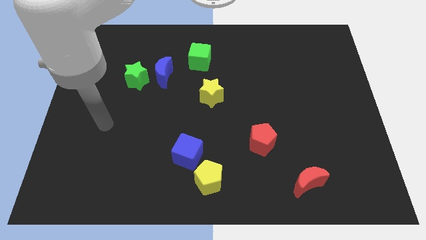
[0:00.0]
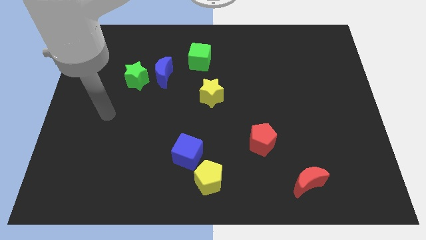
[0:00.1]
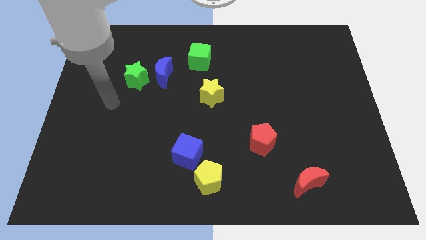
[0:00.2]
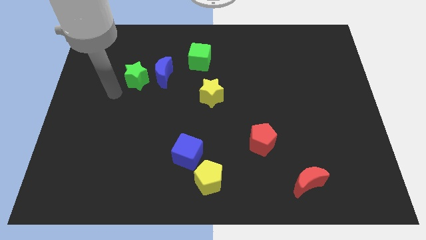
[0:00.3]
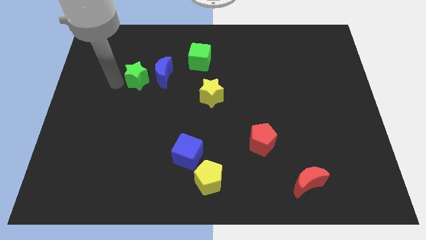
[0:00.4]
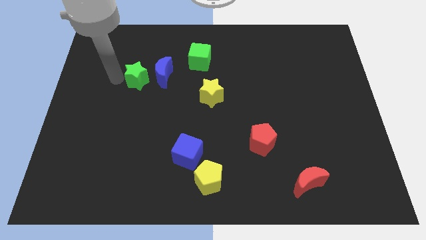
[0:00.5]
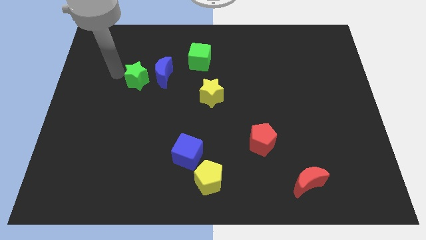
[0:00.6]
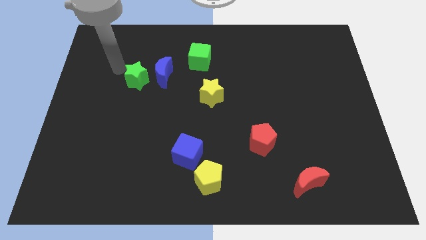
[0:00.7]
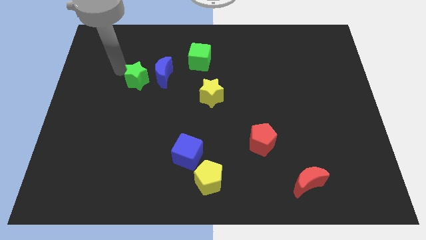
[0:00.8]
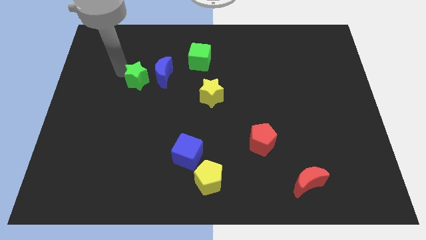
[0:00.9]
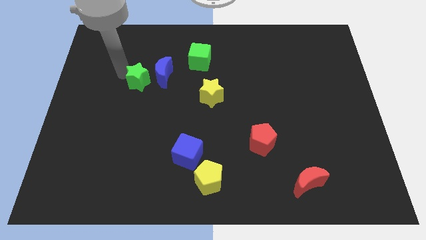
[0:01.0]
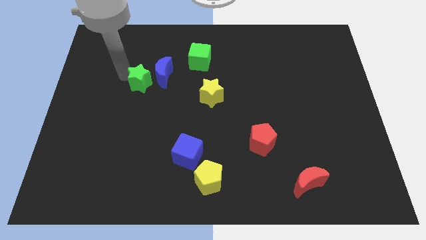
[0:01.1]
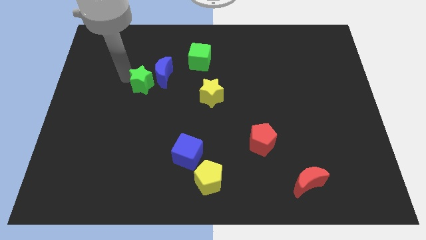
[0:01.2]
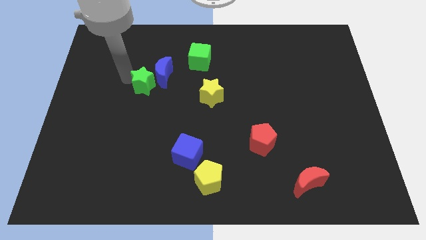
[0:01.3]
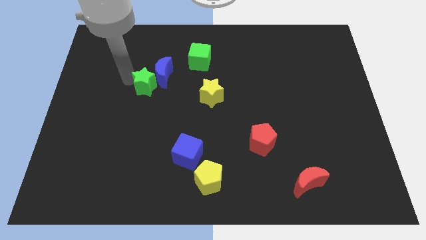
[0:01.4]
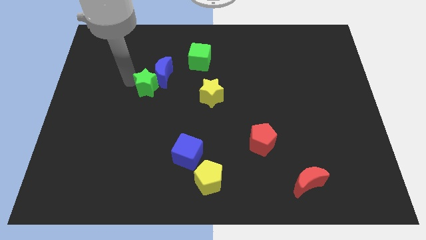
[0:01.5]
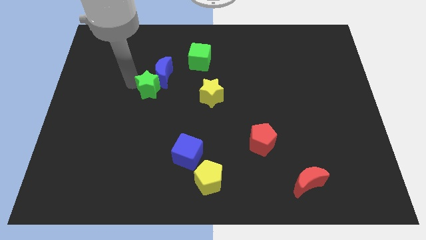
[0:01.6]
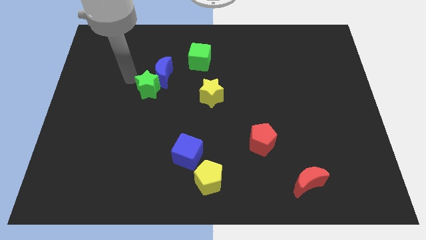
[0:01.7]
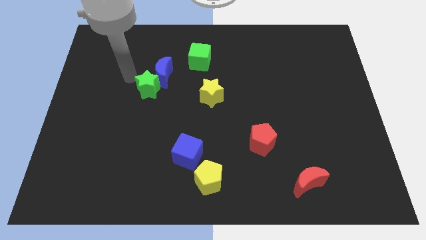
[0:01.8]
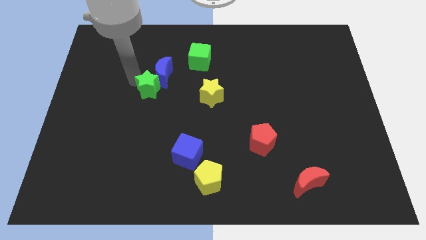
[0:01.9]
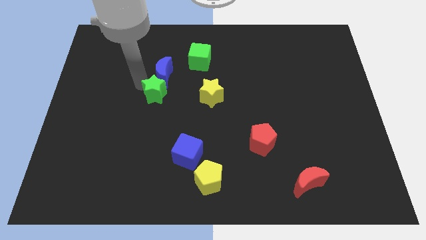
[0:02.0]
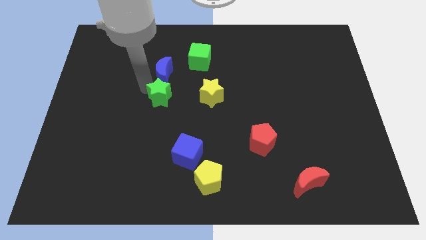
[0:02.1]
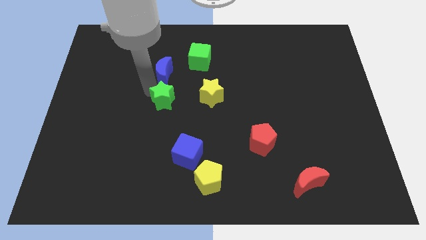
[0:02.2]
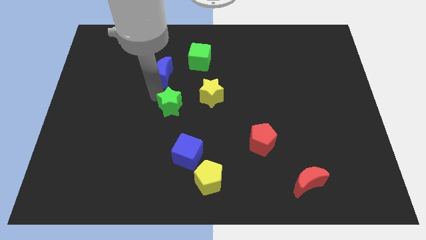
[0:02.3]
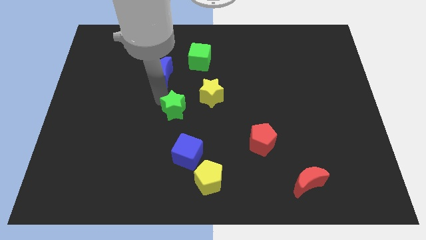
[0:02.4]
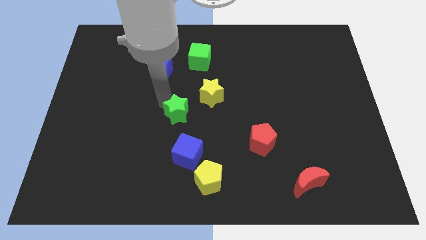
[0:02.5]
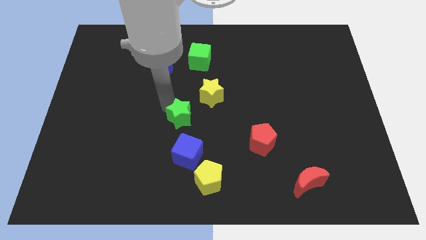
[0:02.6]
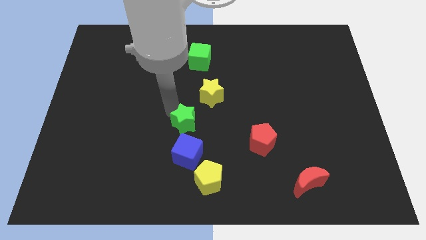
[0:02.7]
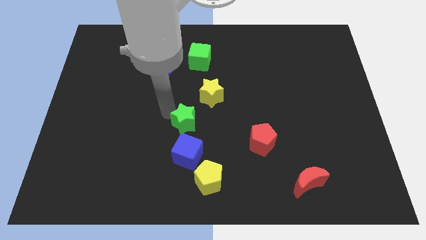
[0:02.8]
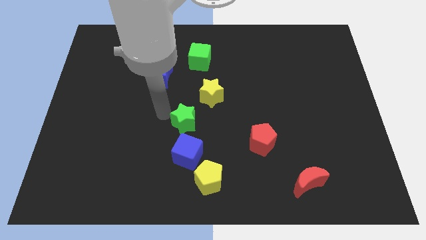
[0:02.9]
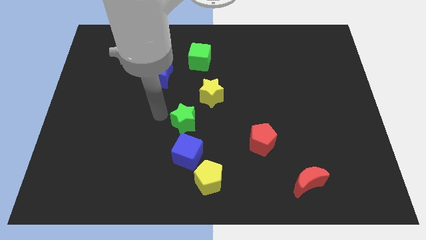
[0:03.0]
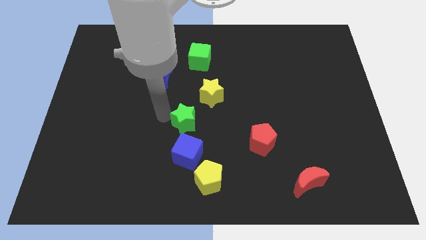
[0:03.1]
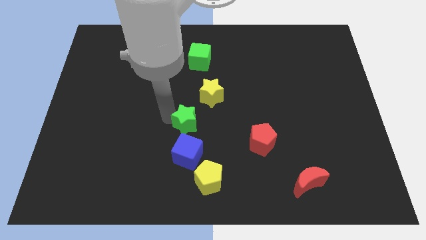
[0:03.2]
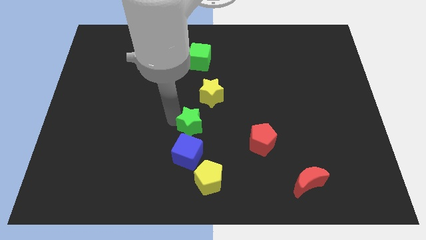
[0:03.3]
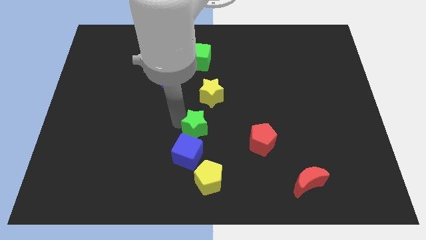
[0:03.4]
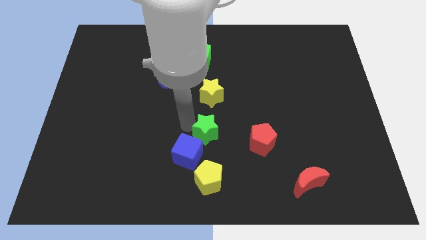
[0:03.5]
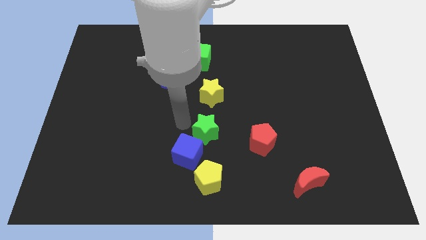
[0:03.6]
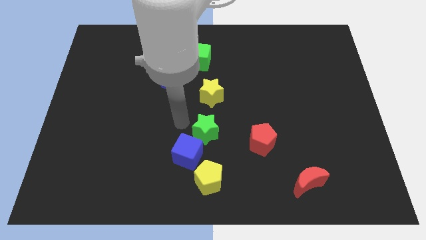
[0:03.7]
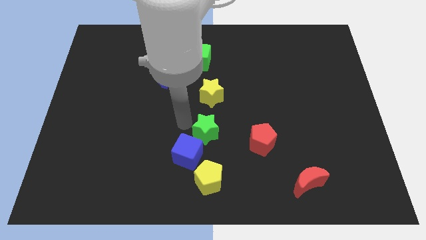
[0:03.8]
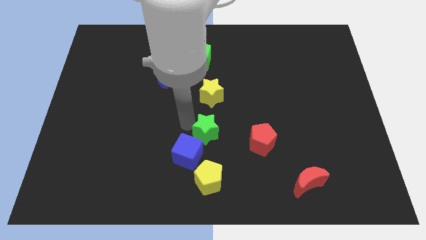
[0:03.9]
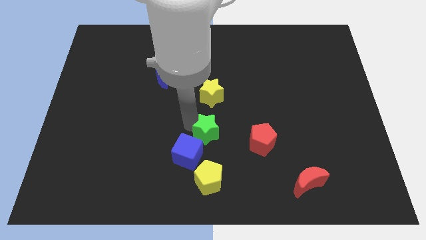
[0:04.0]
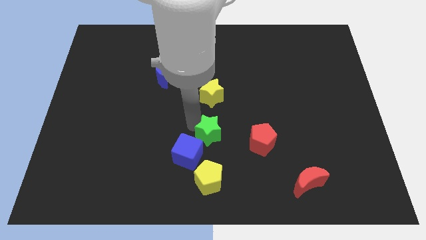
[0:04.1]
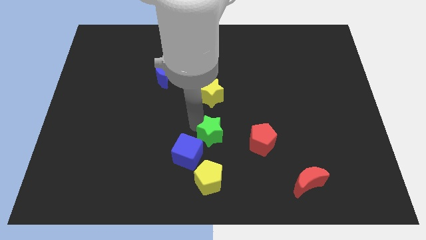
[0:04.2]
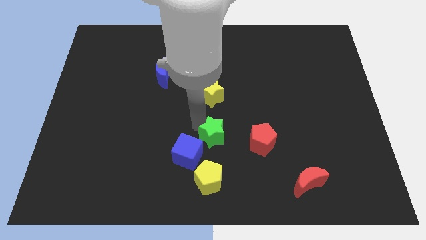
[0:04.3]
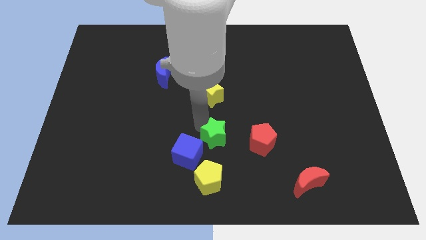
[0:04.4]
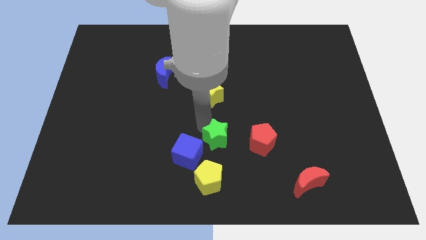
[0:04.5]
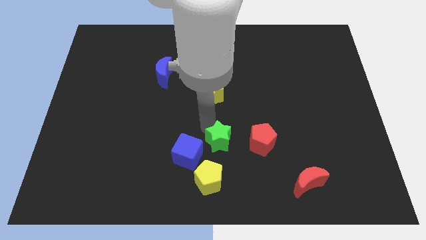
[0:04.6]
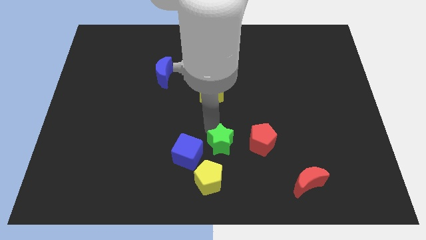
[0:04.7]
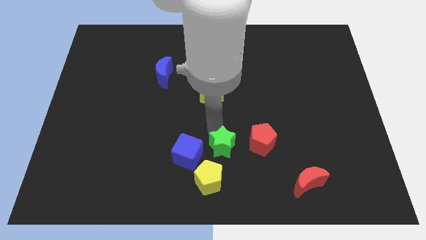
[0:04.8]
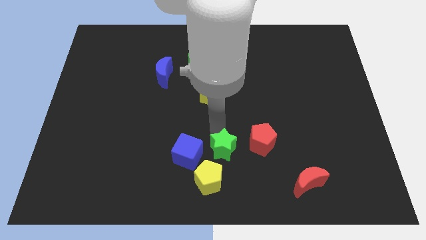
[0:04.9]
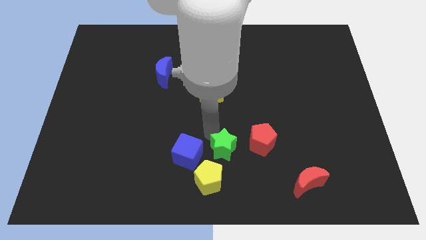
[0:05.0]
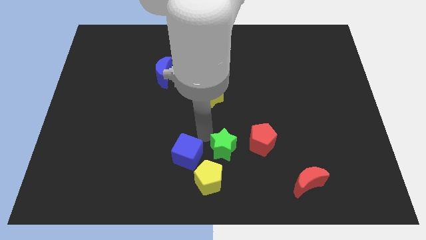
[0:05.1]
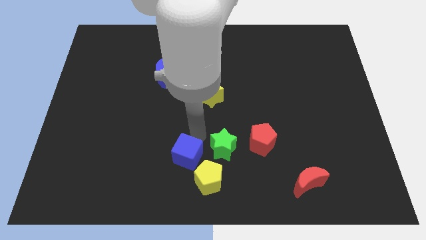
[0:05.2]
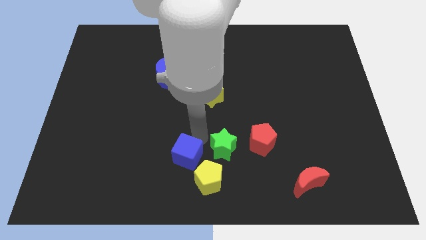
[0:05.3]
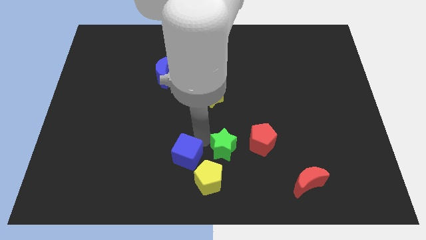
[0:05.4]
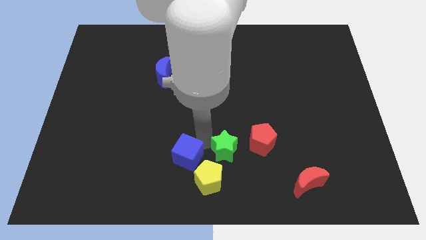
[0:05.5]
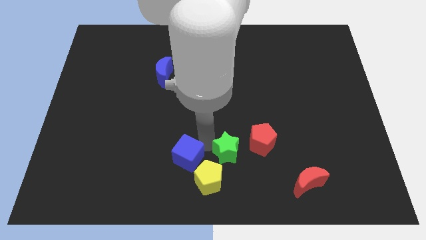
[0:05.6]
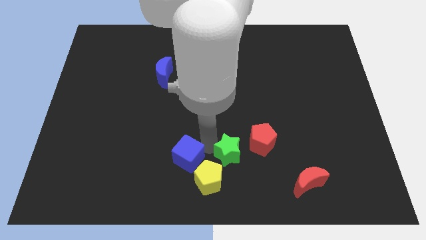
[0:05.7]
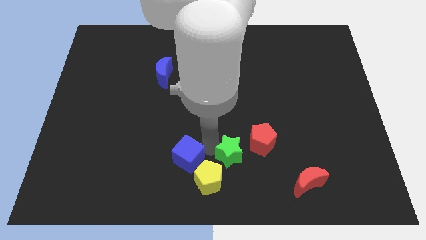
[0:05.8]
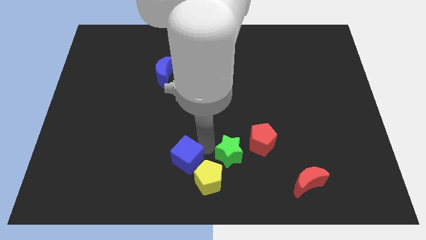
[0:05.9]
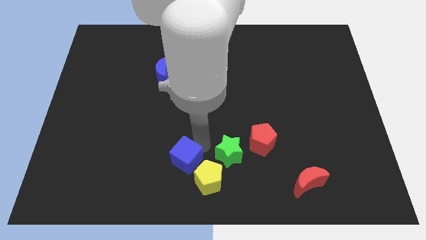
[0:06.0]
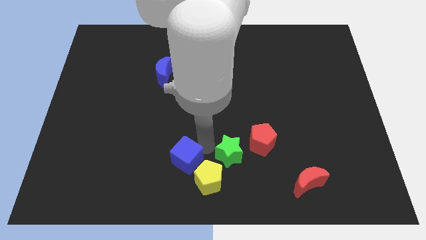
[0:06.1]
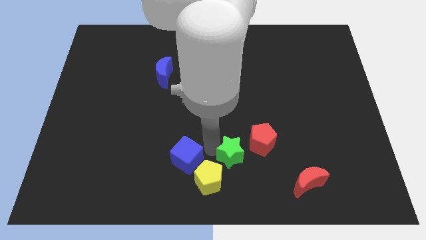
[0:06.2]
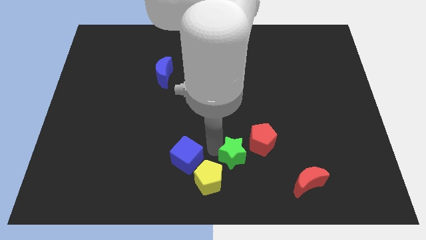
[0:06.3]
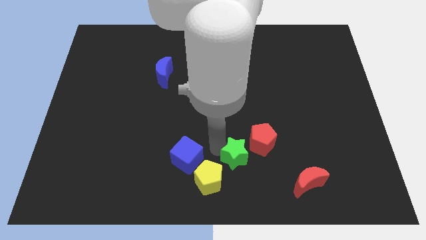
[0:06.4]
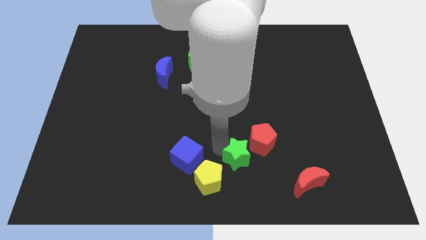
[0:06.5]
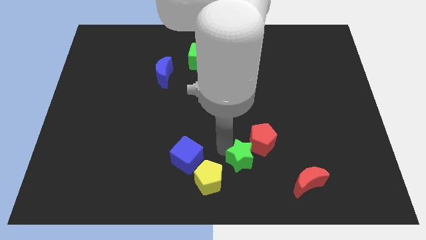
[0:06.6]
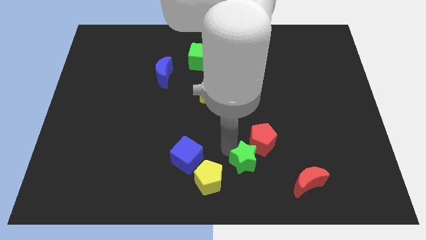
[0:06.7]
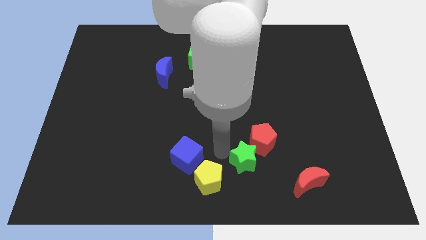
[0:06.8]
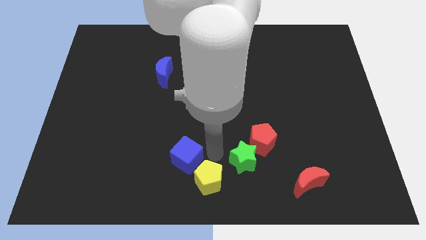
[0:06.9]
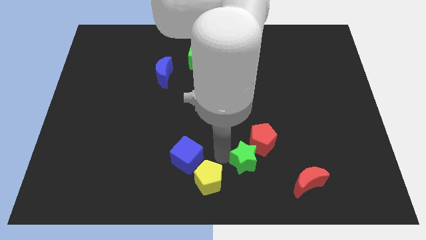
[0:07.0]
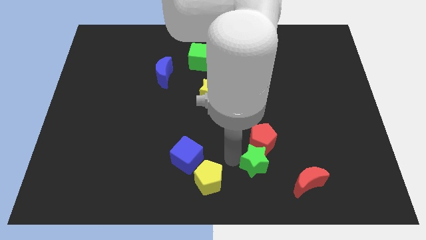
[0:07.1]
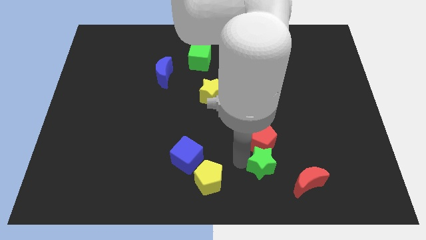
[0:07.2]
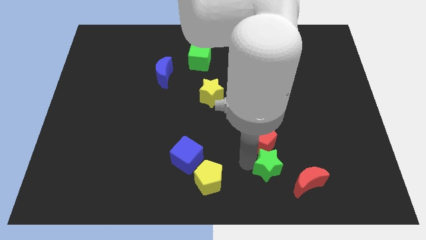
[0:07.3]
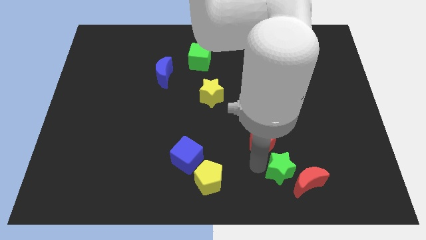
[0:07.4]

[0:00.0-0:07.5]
slide the green star close to the red moon
